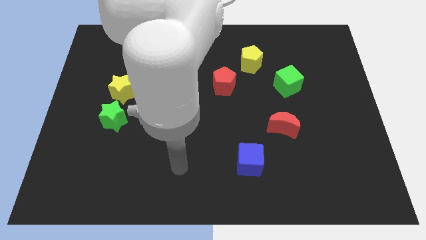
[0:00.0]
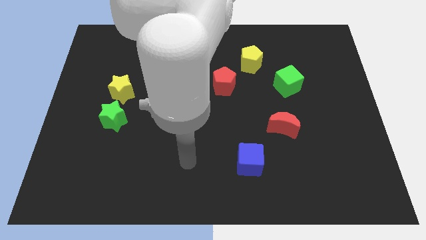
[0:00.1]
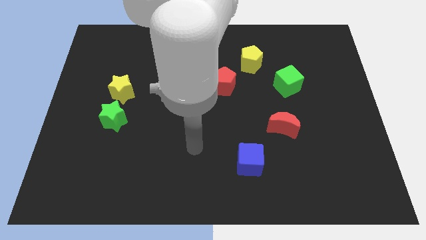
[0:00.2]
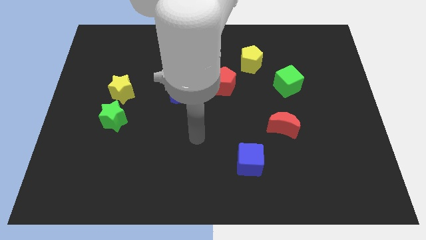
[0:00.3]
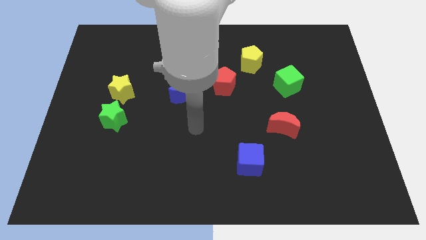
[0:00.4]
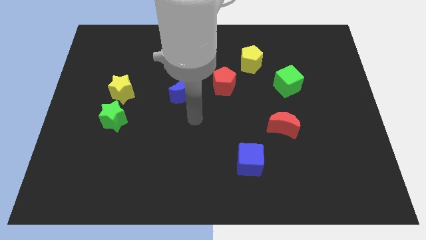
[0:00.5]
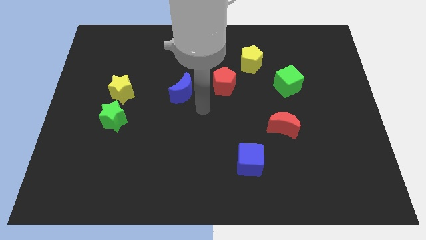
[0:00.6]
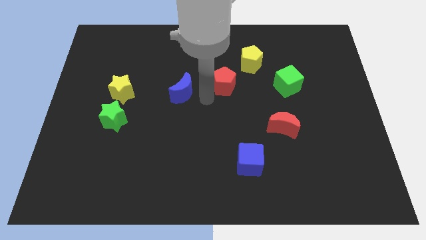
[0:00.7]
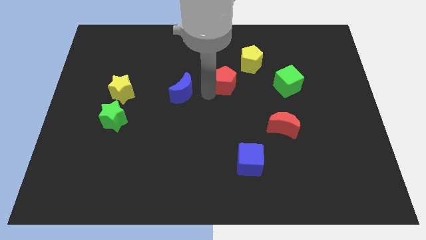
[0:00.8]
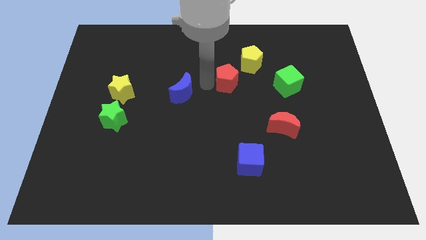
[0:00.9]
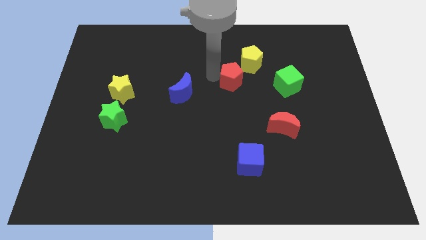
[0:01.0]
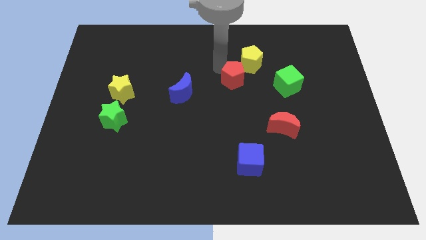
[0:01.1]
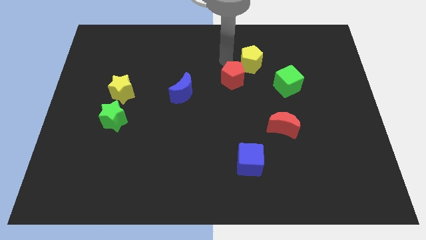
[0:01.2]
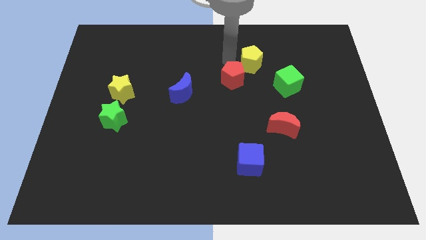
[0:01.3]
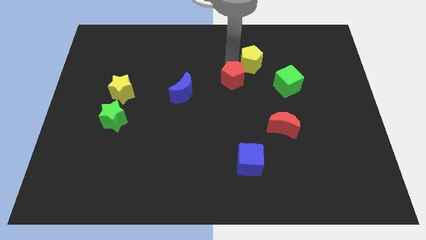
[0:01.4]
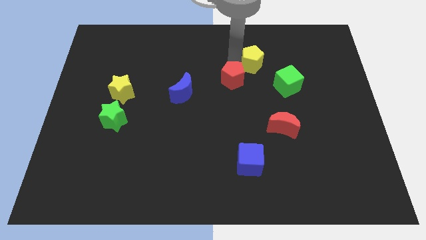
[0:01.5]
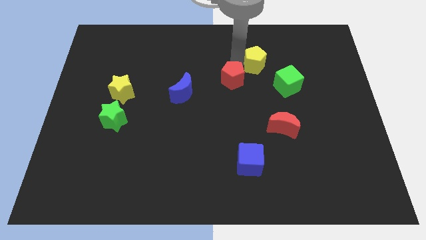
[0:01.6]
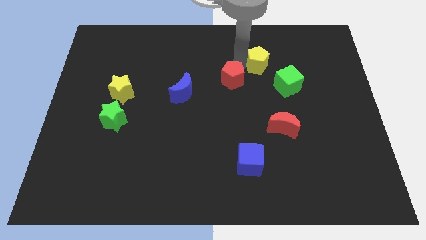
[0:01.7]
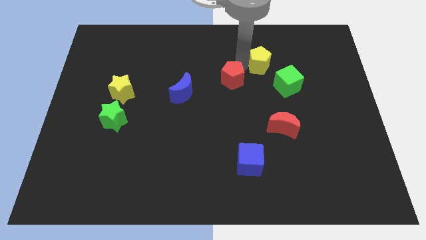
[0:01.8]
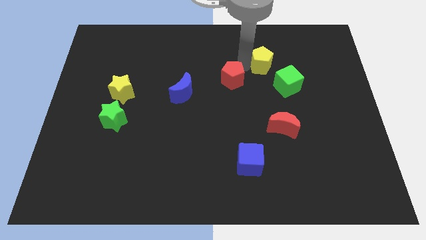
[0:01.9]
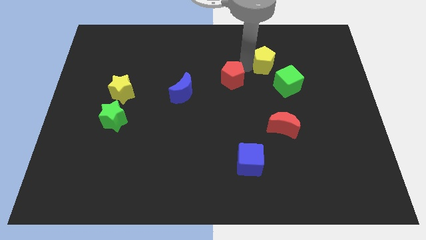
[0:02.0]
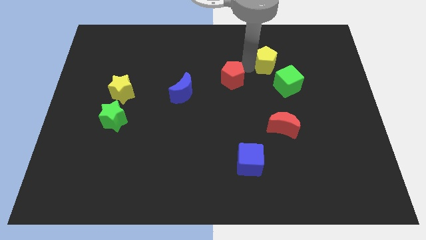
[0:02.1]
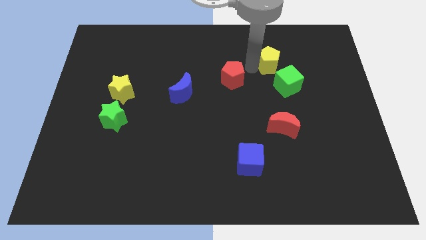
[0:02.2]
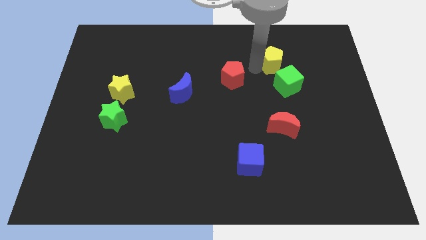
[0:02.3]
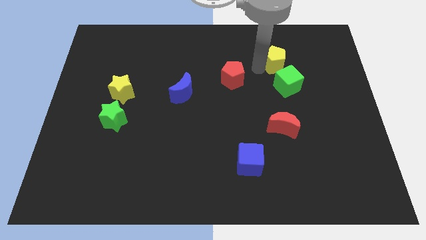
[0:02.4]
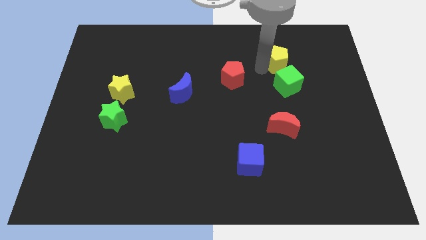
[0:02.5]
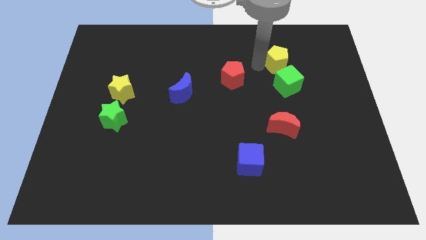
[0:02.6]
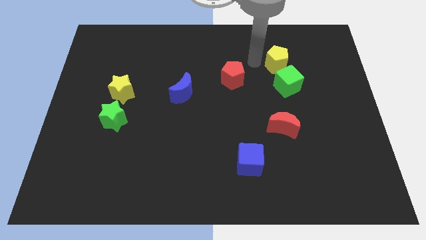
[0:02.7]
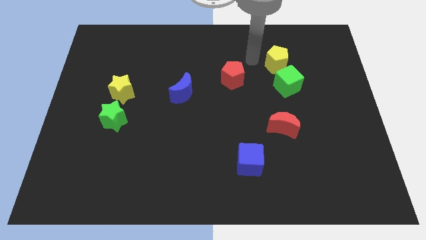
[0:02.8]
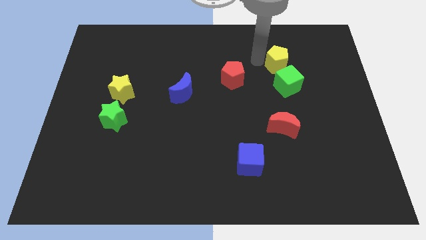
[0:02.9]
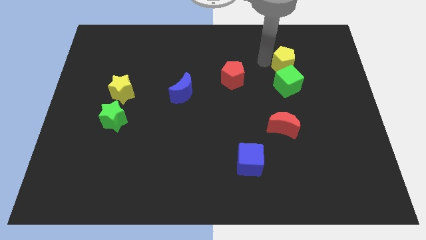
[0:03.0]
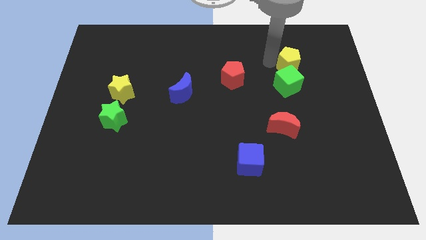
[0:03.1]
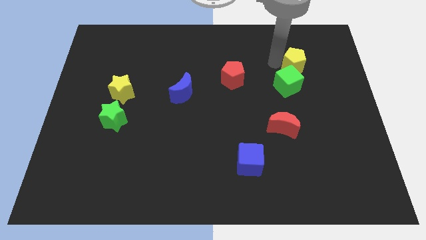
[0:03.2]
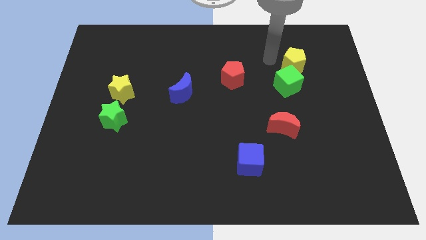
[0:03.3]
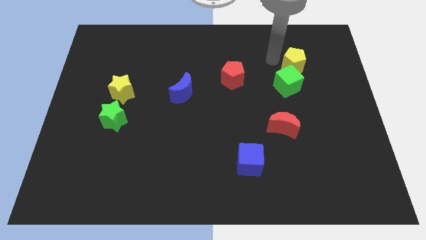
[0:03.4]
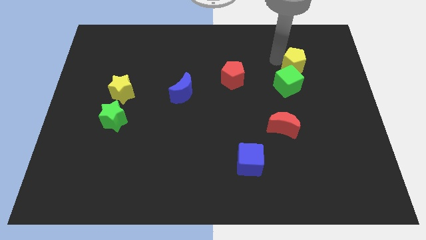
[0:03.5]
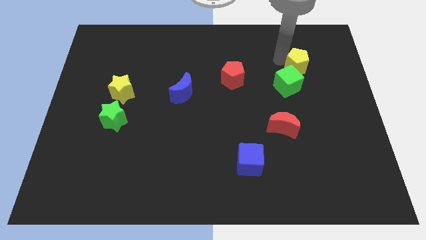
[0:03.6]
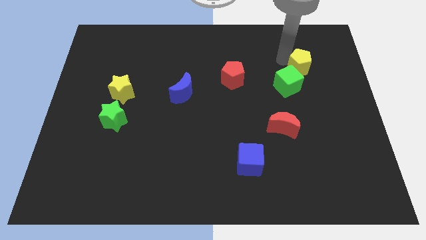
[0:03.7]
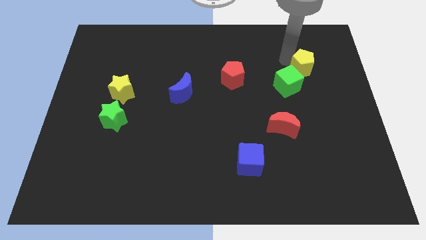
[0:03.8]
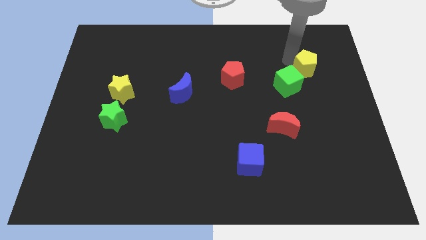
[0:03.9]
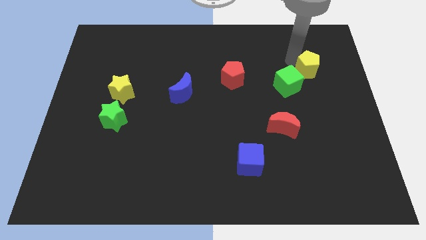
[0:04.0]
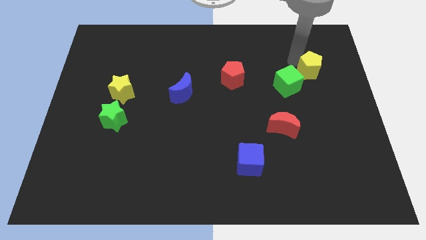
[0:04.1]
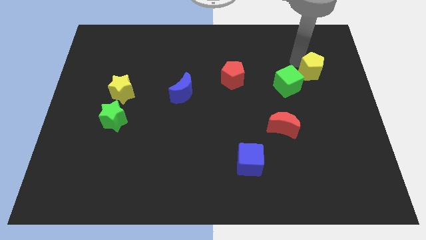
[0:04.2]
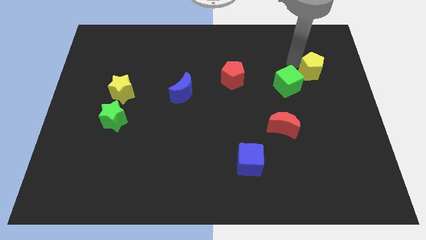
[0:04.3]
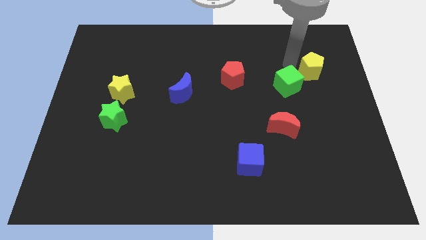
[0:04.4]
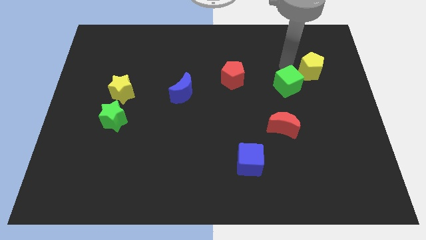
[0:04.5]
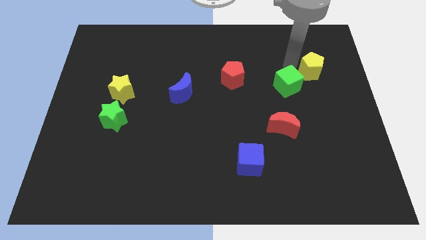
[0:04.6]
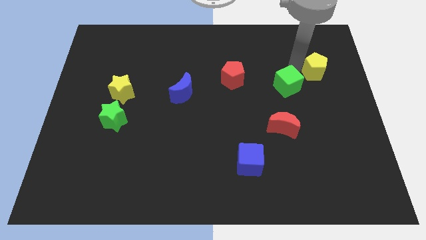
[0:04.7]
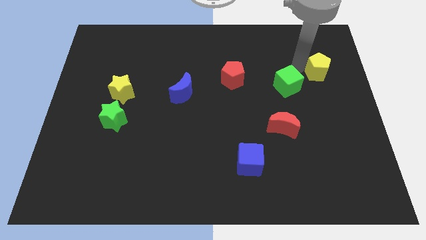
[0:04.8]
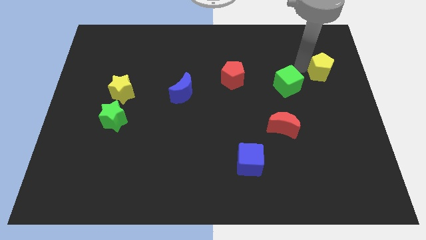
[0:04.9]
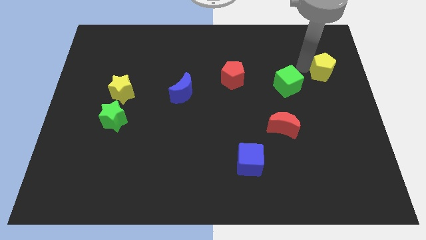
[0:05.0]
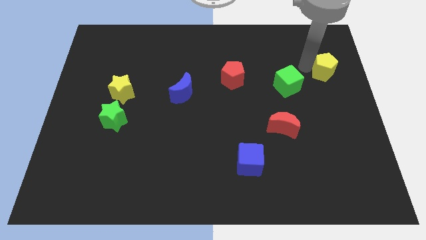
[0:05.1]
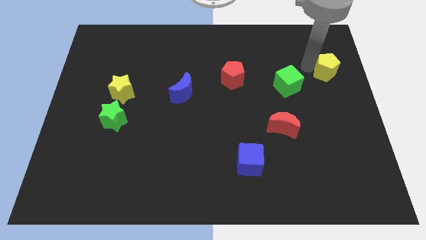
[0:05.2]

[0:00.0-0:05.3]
put the yellow pentagon to the right side
